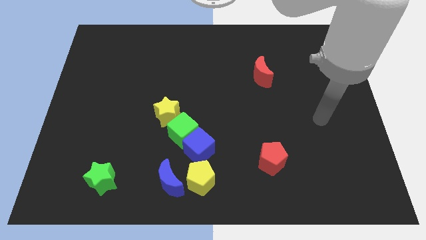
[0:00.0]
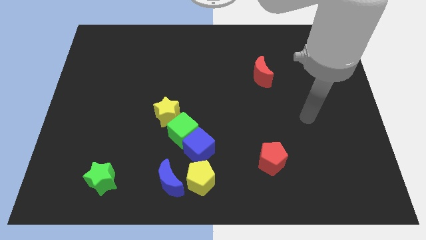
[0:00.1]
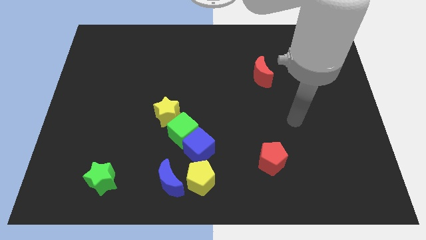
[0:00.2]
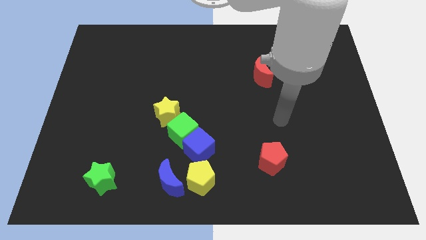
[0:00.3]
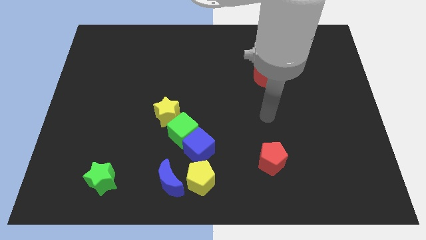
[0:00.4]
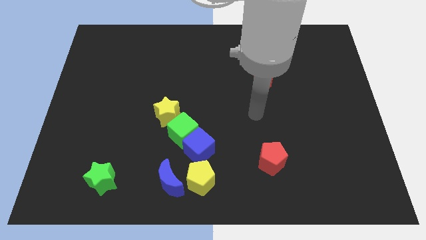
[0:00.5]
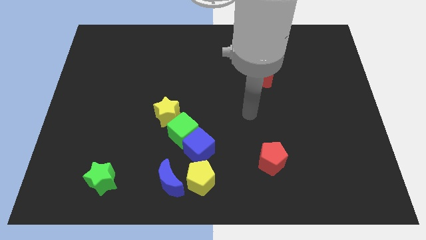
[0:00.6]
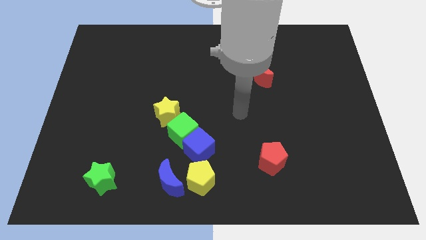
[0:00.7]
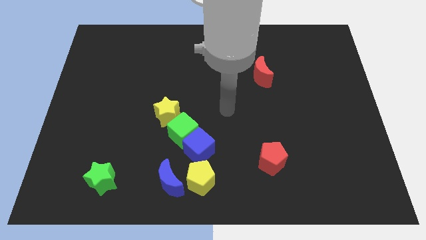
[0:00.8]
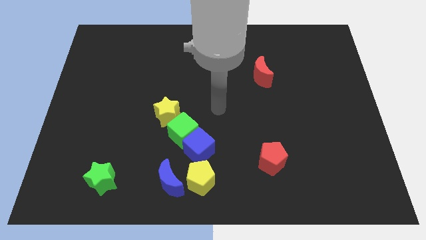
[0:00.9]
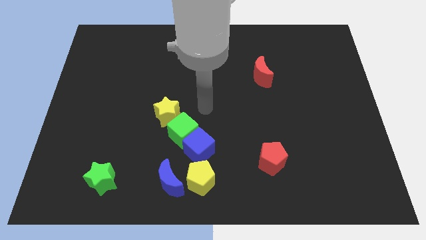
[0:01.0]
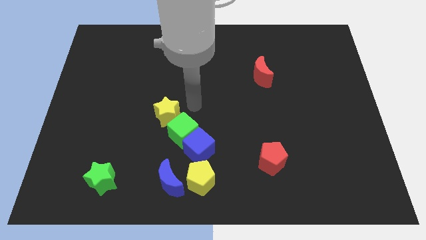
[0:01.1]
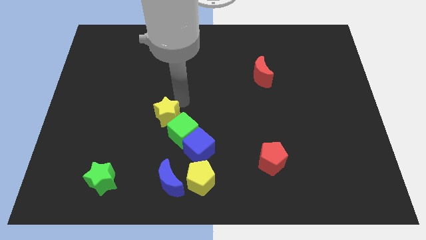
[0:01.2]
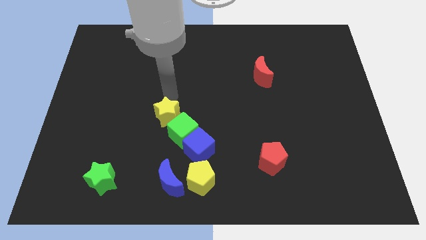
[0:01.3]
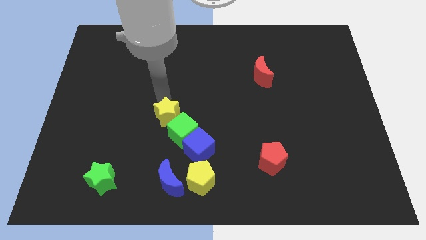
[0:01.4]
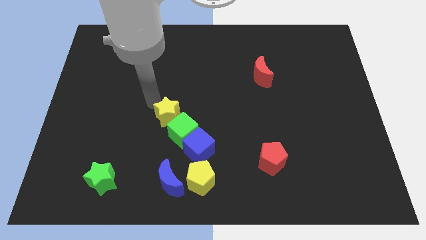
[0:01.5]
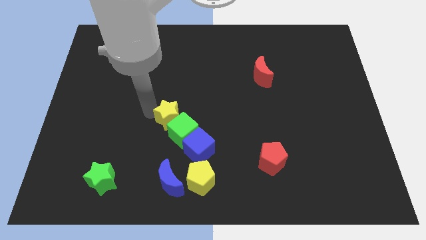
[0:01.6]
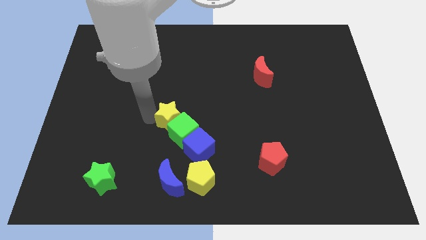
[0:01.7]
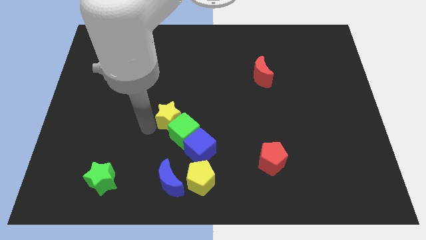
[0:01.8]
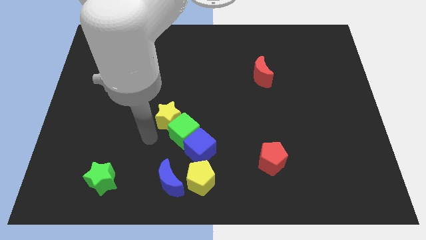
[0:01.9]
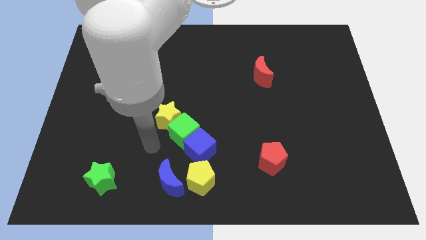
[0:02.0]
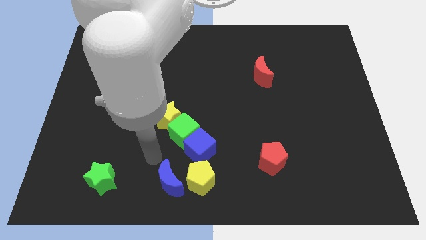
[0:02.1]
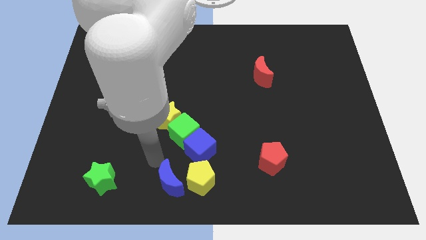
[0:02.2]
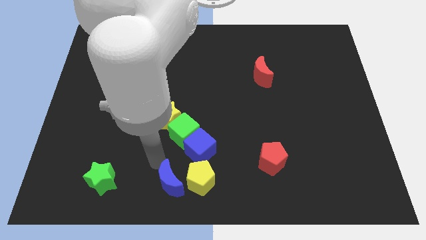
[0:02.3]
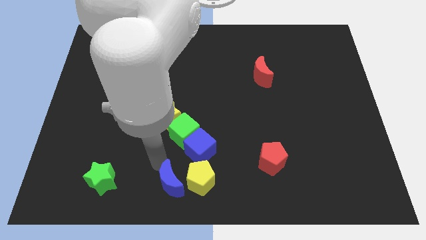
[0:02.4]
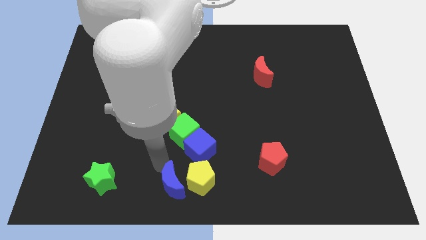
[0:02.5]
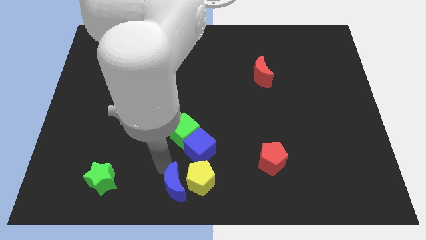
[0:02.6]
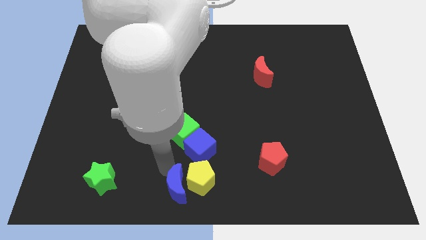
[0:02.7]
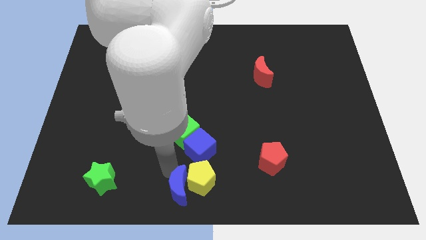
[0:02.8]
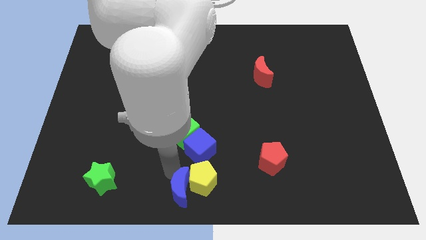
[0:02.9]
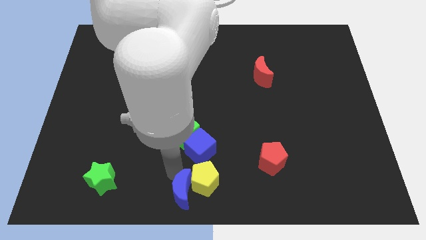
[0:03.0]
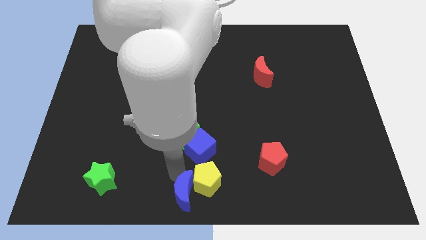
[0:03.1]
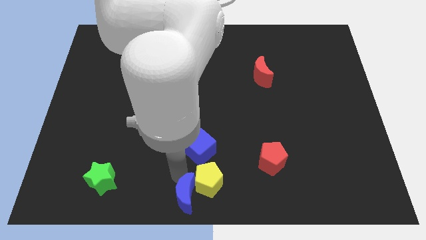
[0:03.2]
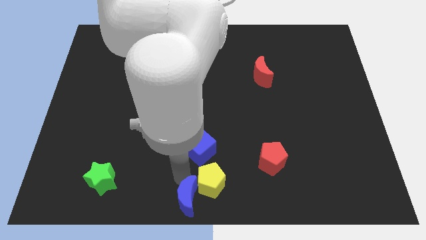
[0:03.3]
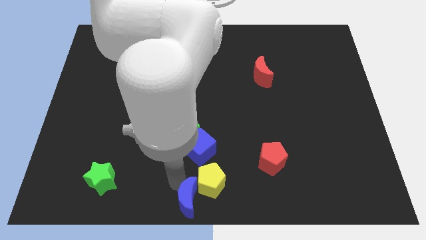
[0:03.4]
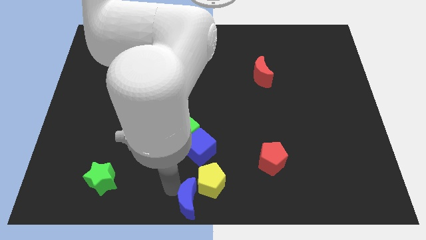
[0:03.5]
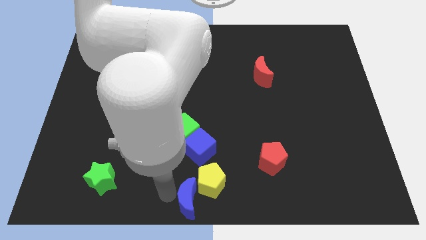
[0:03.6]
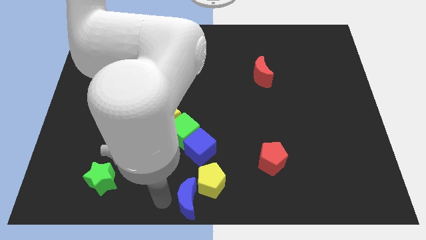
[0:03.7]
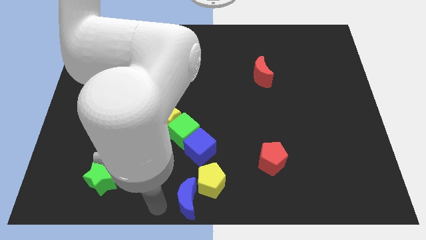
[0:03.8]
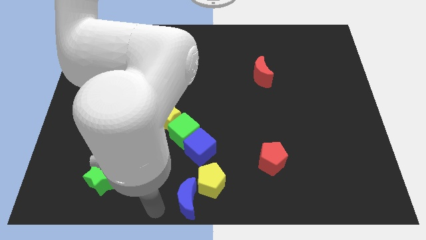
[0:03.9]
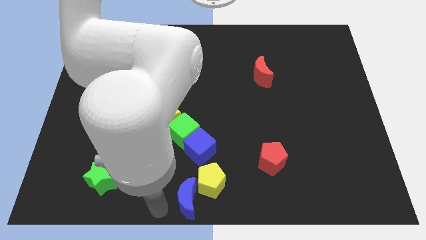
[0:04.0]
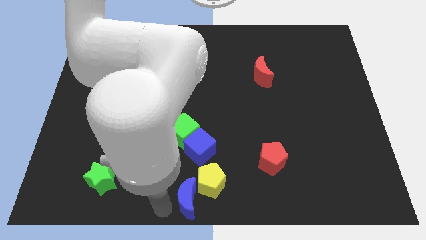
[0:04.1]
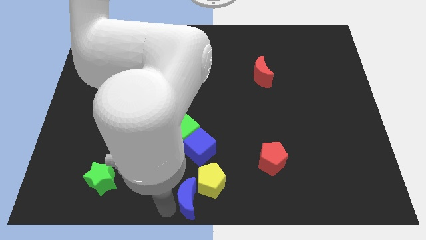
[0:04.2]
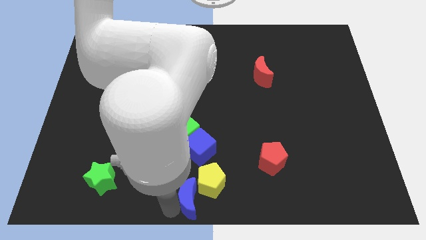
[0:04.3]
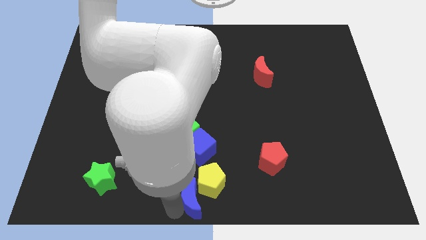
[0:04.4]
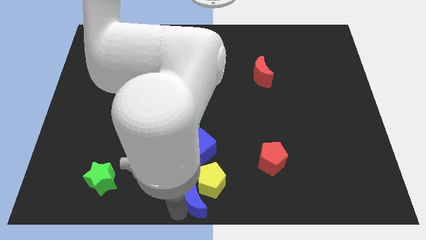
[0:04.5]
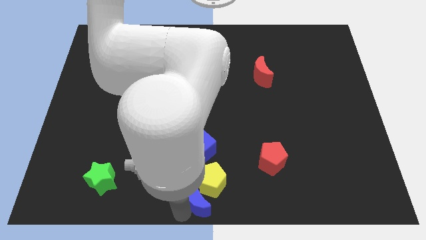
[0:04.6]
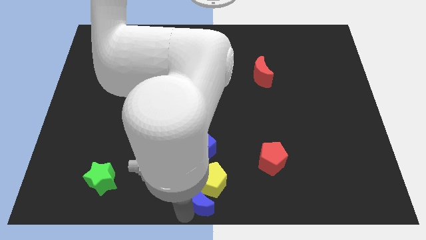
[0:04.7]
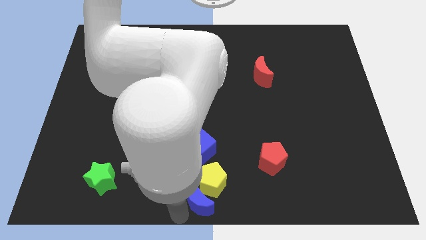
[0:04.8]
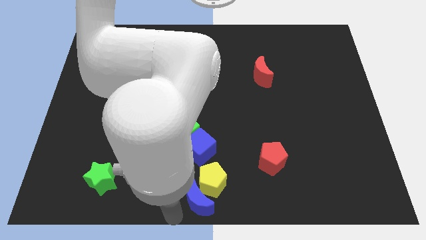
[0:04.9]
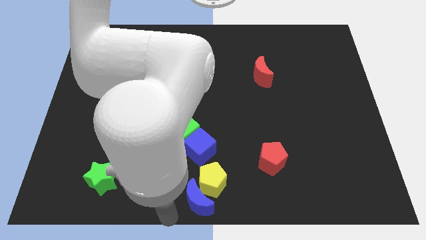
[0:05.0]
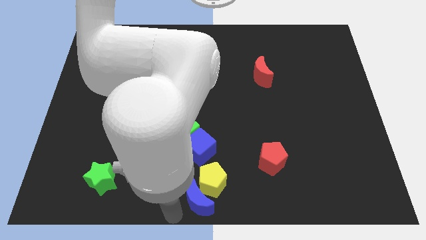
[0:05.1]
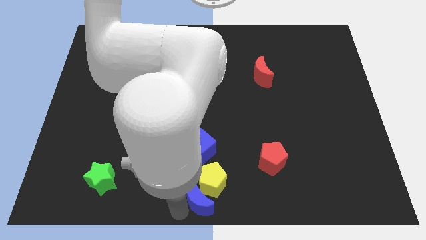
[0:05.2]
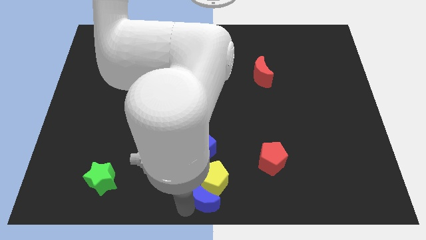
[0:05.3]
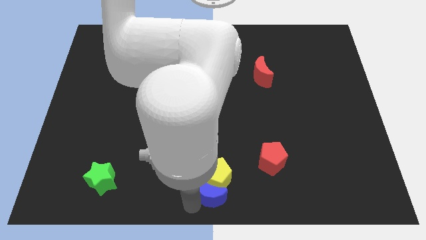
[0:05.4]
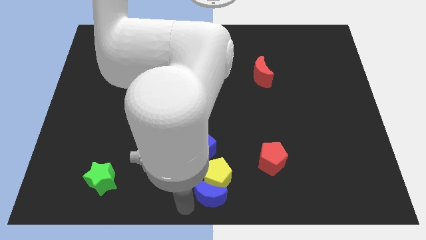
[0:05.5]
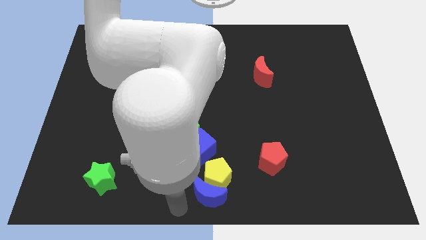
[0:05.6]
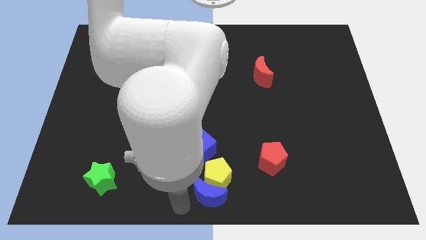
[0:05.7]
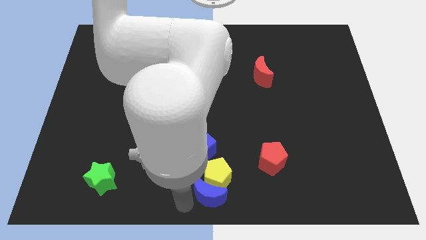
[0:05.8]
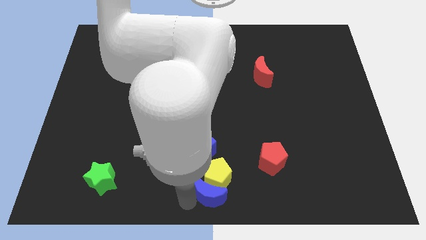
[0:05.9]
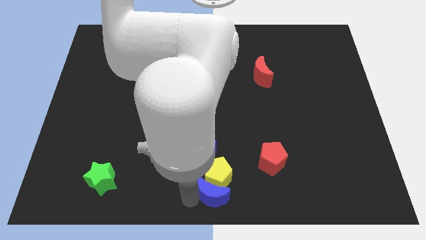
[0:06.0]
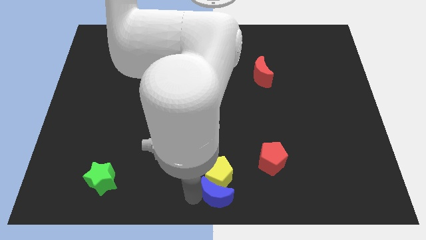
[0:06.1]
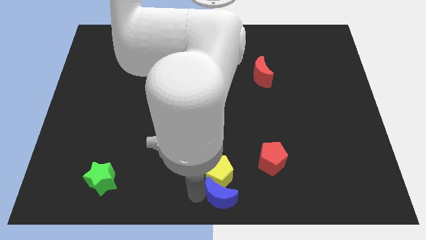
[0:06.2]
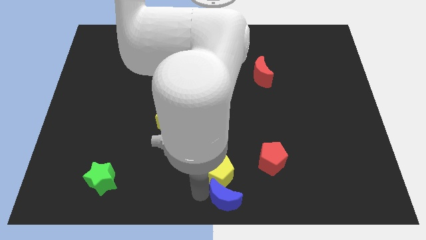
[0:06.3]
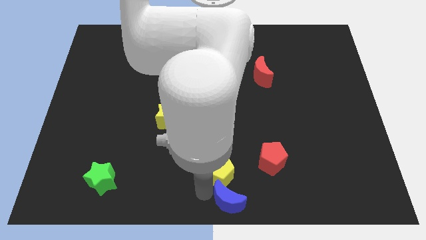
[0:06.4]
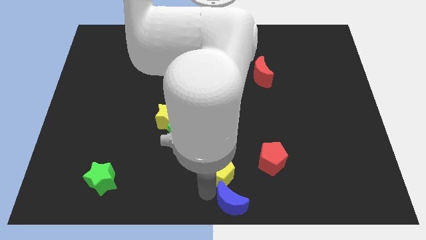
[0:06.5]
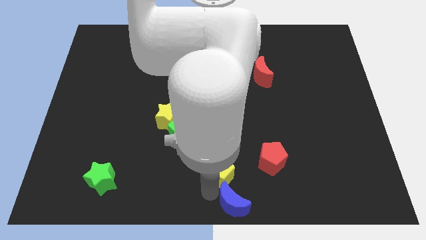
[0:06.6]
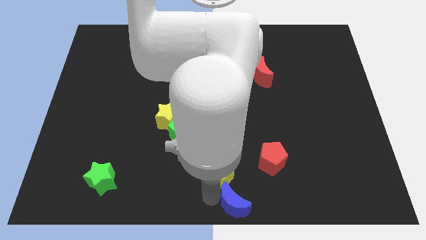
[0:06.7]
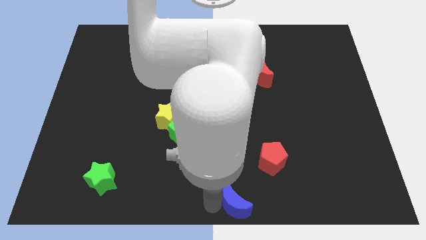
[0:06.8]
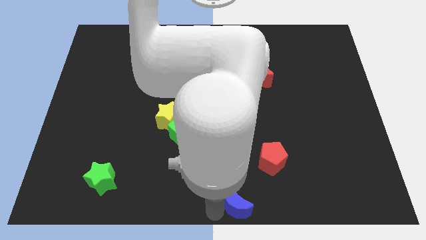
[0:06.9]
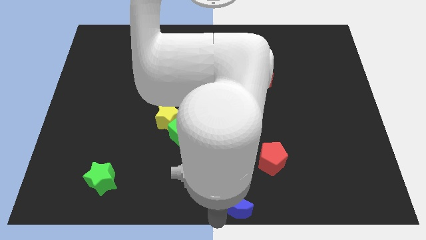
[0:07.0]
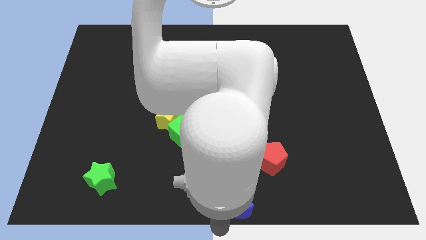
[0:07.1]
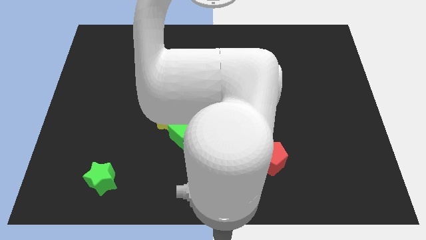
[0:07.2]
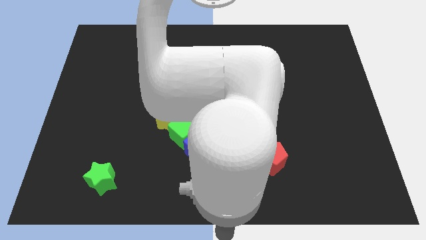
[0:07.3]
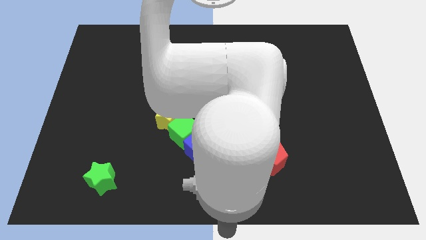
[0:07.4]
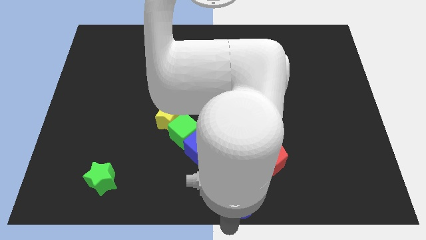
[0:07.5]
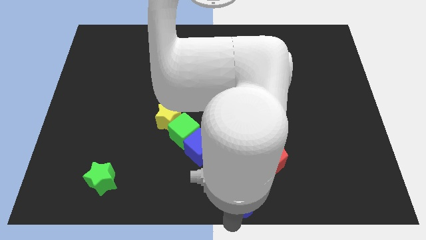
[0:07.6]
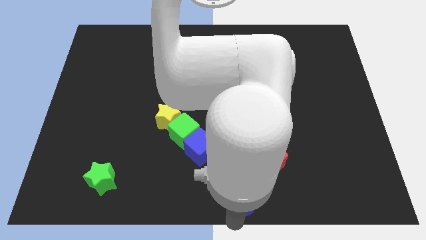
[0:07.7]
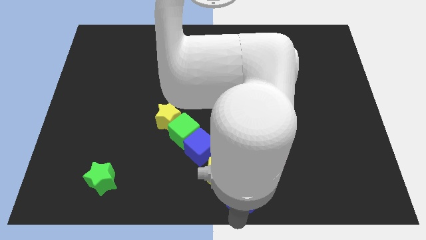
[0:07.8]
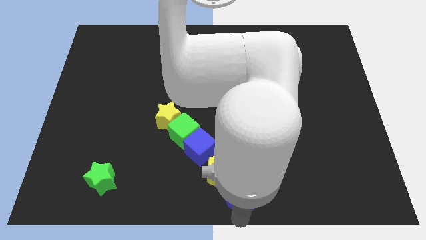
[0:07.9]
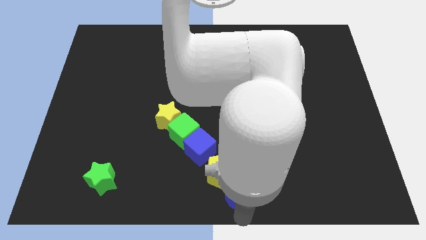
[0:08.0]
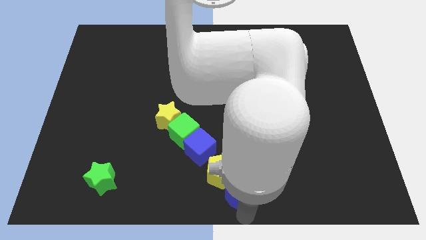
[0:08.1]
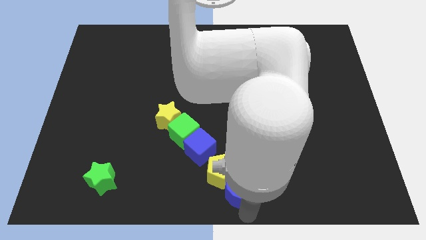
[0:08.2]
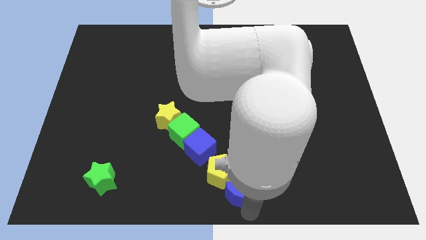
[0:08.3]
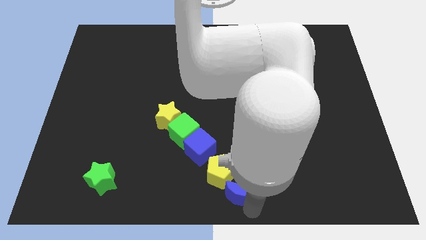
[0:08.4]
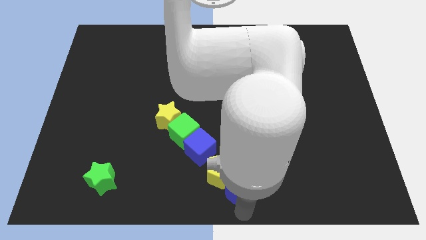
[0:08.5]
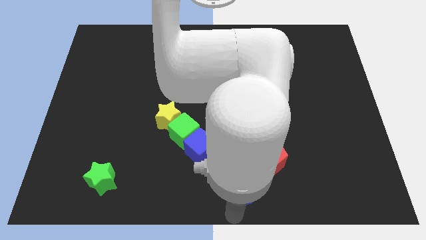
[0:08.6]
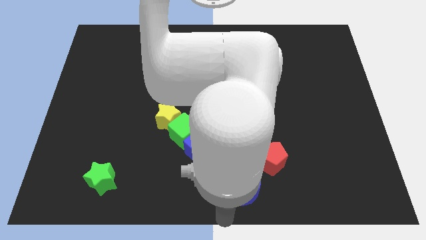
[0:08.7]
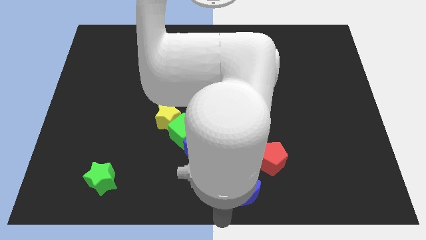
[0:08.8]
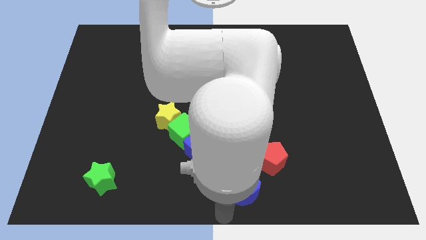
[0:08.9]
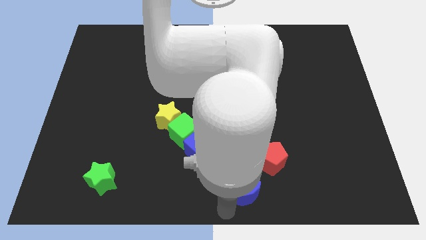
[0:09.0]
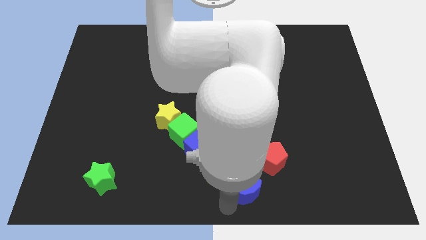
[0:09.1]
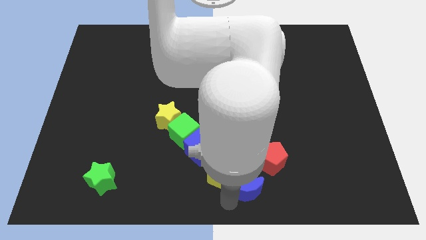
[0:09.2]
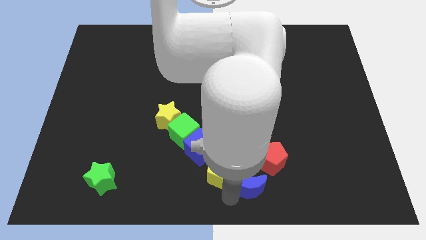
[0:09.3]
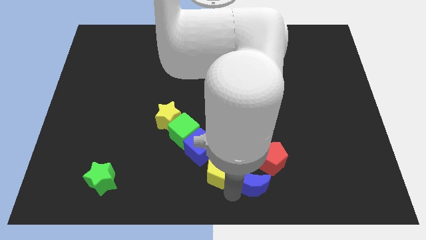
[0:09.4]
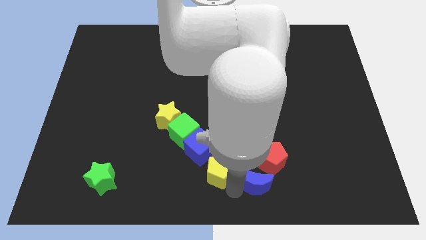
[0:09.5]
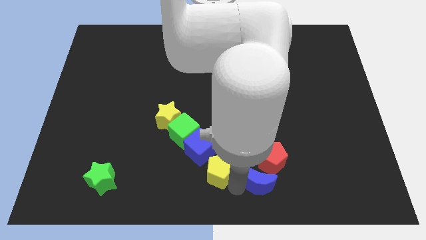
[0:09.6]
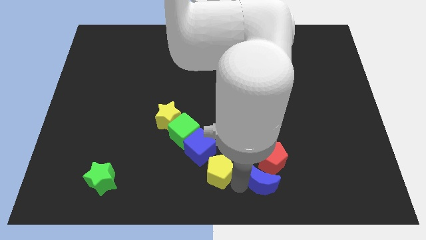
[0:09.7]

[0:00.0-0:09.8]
push the blue moon to the red pentagon
